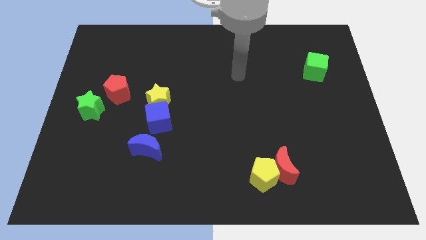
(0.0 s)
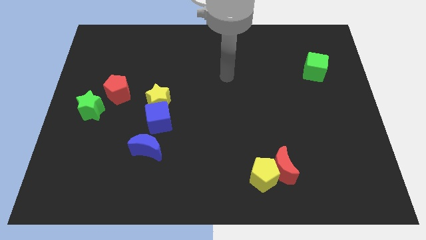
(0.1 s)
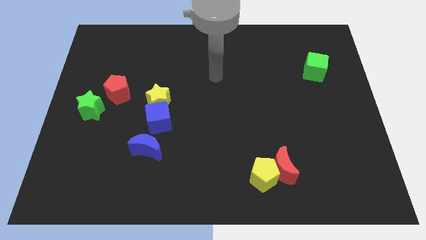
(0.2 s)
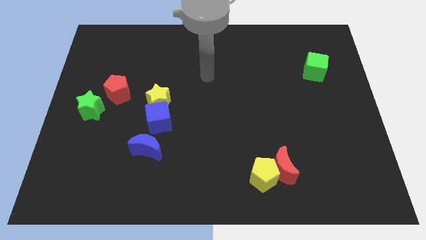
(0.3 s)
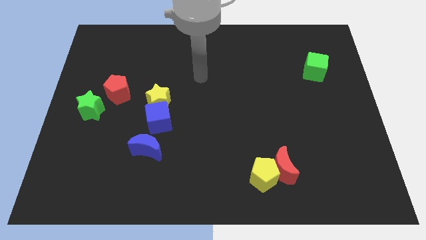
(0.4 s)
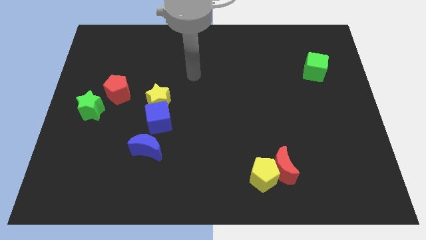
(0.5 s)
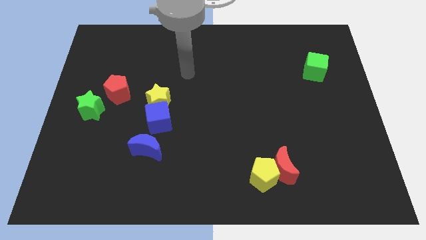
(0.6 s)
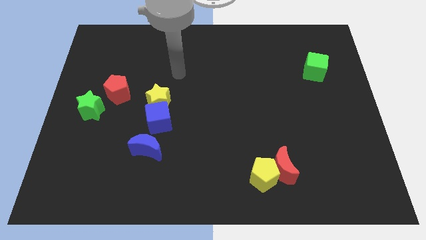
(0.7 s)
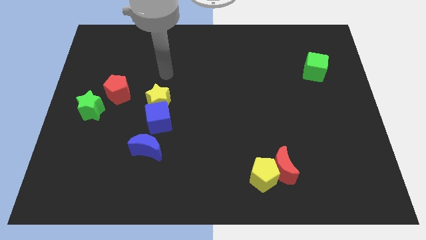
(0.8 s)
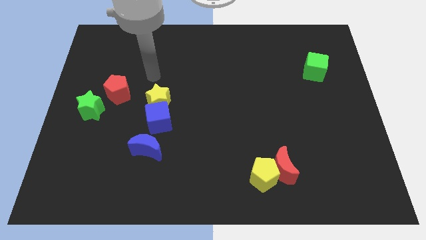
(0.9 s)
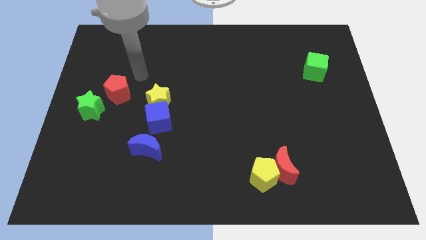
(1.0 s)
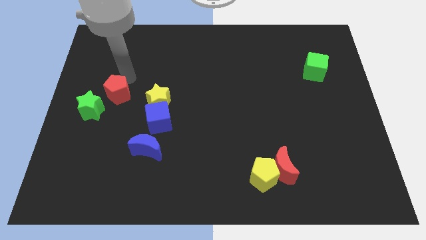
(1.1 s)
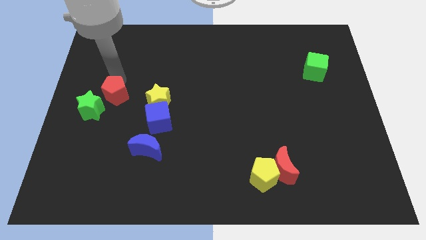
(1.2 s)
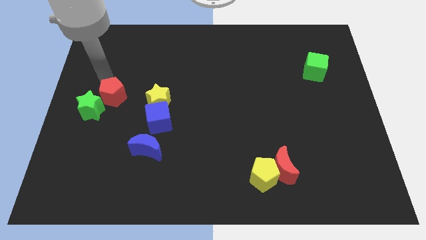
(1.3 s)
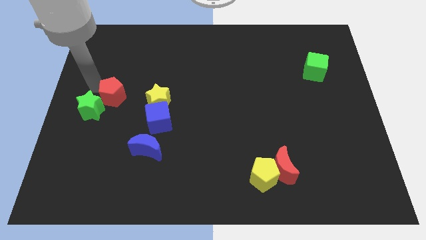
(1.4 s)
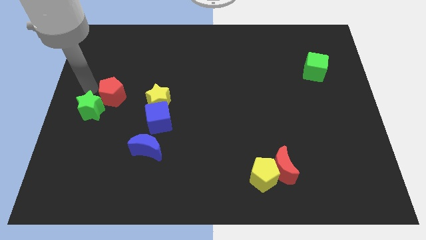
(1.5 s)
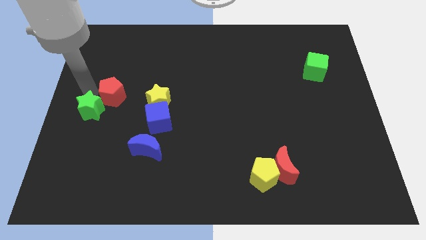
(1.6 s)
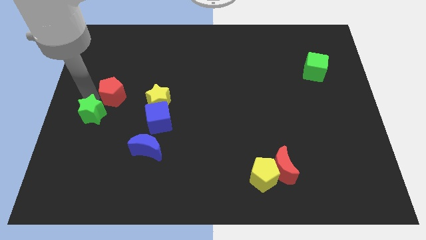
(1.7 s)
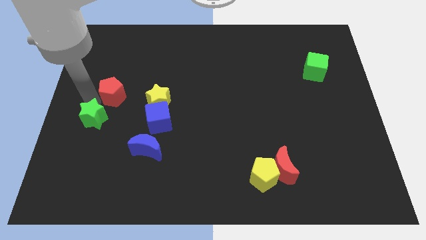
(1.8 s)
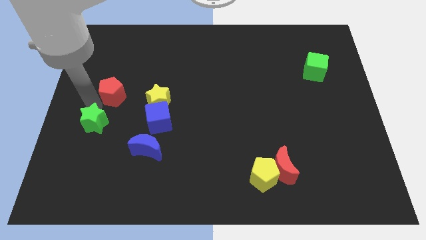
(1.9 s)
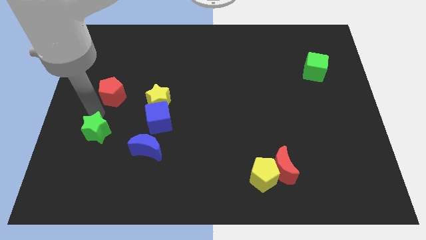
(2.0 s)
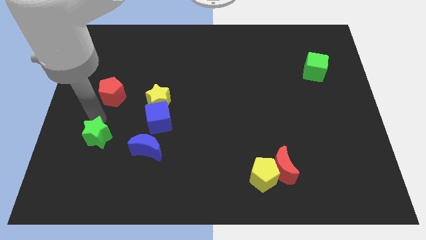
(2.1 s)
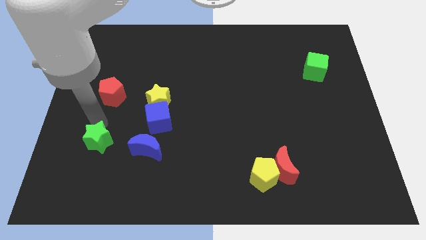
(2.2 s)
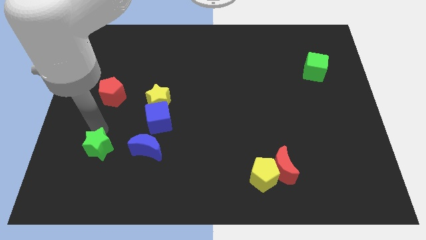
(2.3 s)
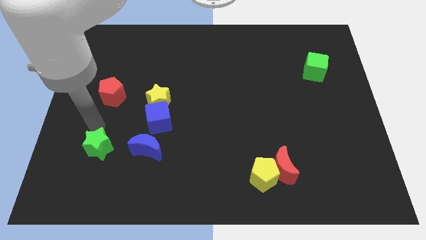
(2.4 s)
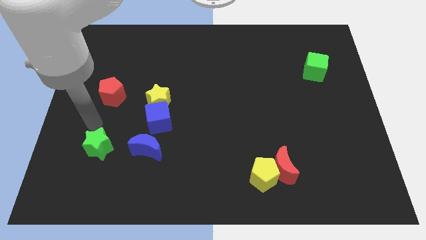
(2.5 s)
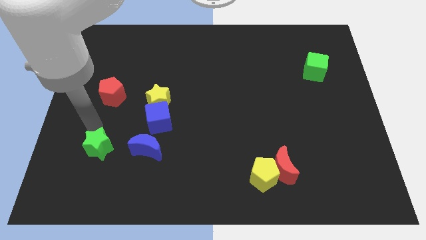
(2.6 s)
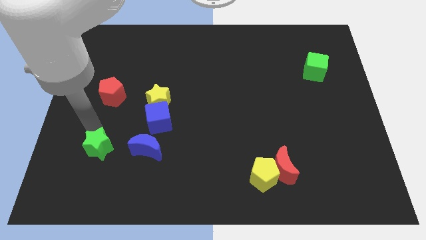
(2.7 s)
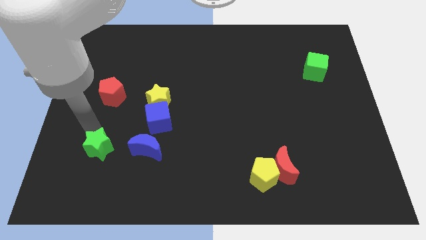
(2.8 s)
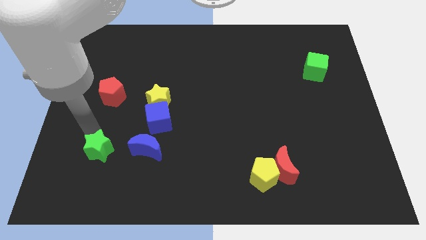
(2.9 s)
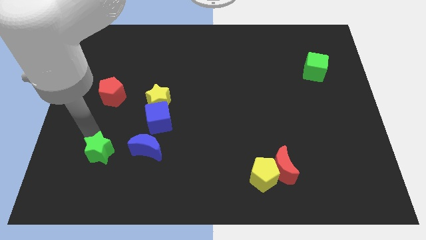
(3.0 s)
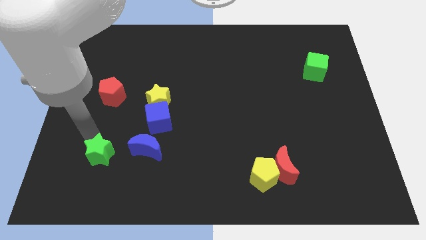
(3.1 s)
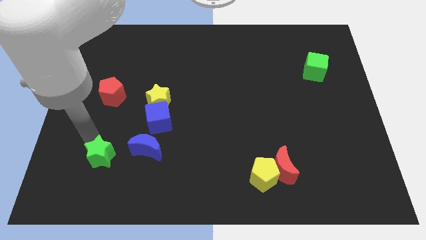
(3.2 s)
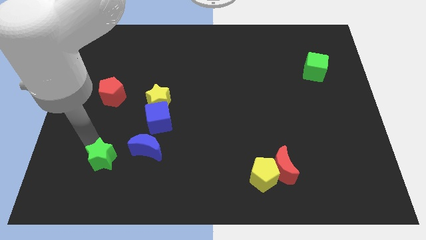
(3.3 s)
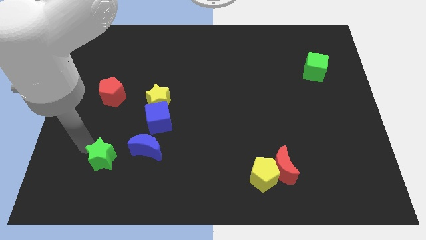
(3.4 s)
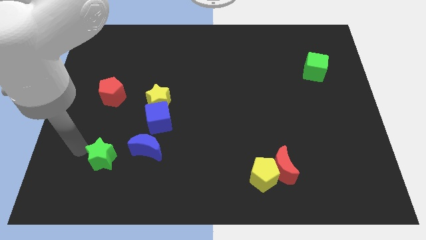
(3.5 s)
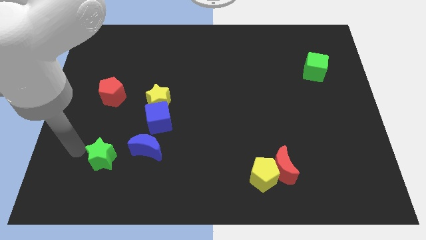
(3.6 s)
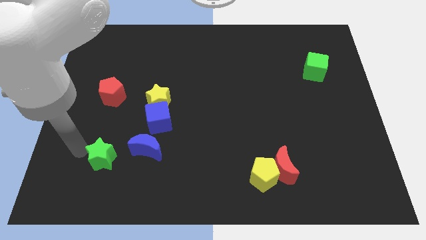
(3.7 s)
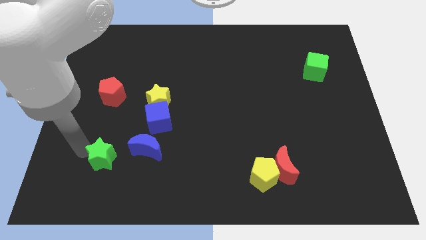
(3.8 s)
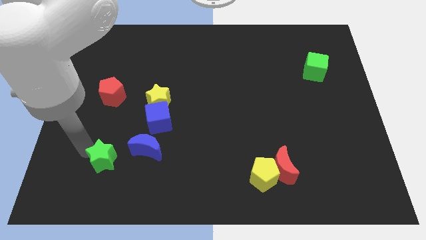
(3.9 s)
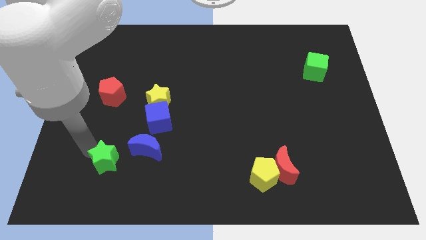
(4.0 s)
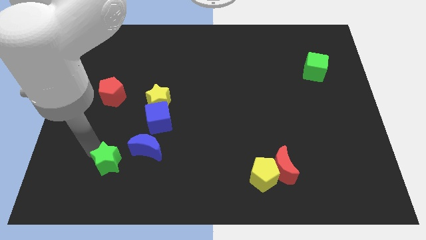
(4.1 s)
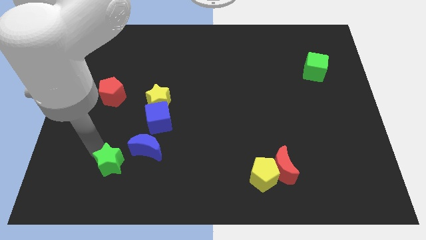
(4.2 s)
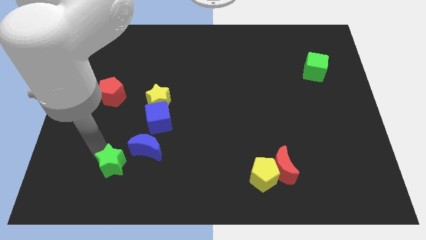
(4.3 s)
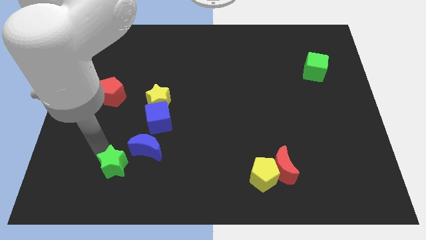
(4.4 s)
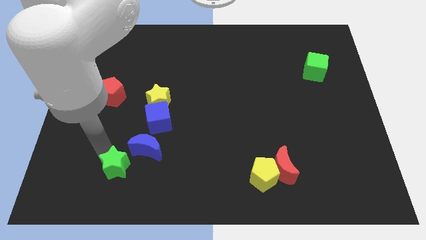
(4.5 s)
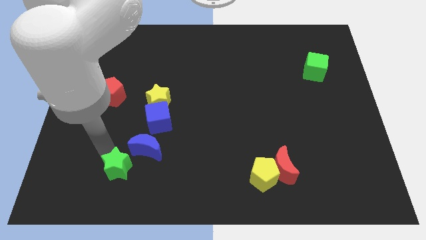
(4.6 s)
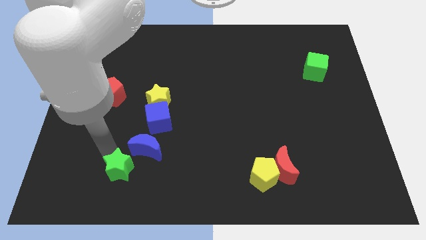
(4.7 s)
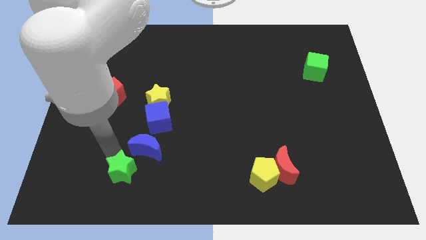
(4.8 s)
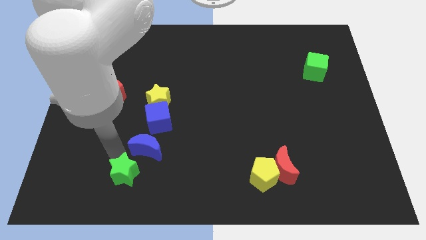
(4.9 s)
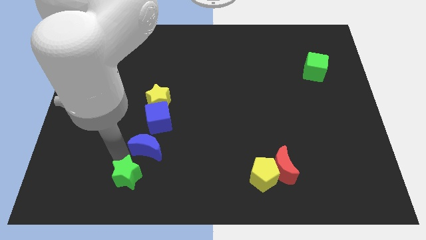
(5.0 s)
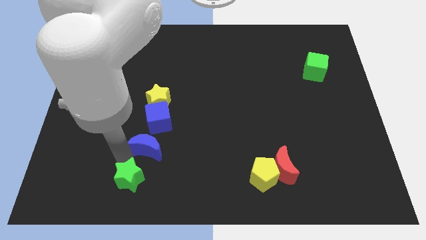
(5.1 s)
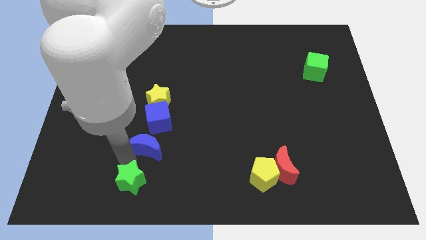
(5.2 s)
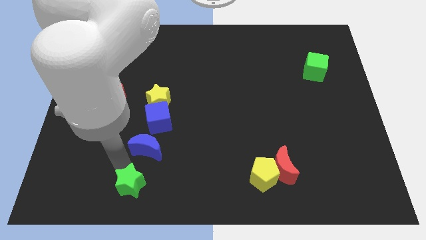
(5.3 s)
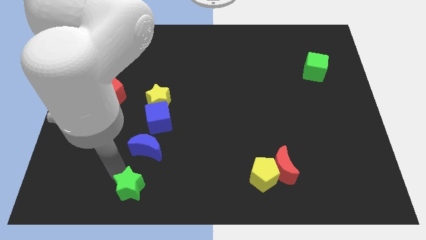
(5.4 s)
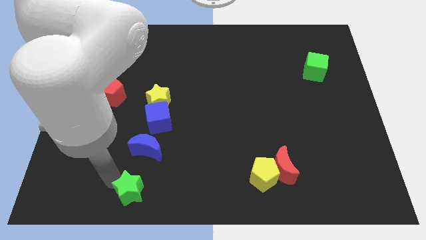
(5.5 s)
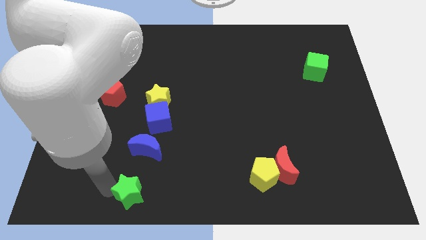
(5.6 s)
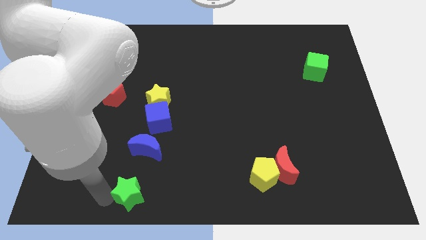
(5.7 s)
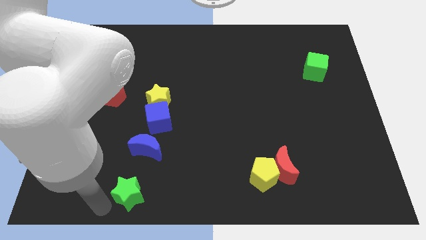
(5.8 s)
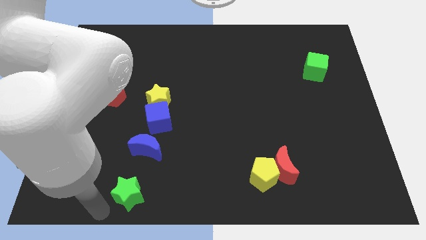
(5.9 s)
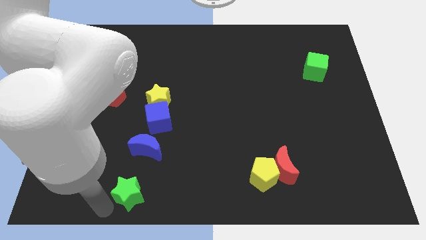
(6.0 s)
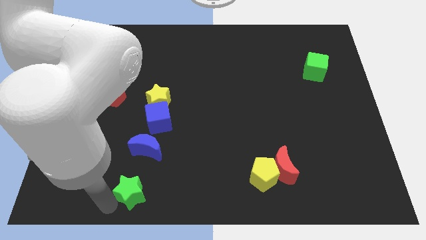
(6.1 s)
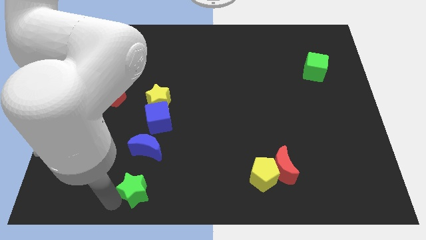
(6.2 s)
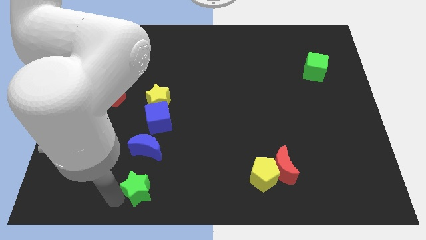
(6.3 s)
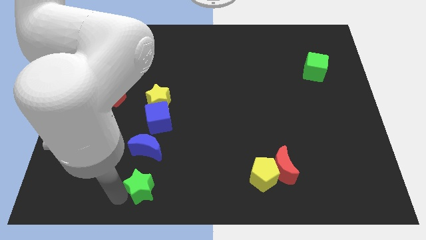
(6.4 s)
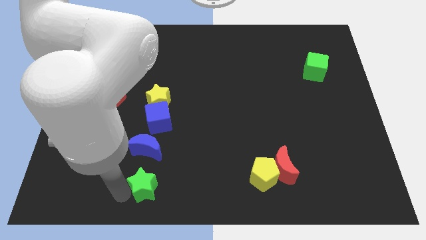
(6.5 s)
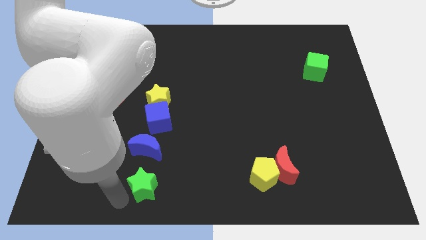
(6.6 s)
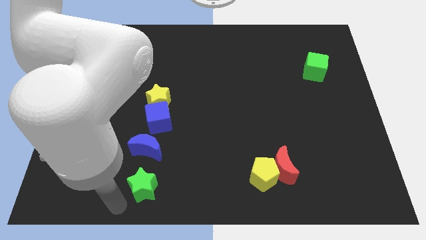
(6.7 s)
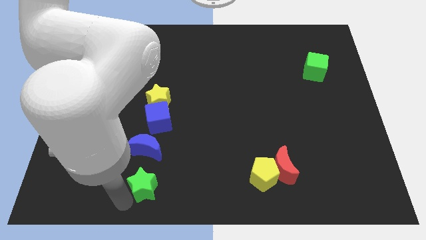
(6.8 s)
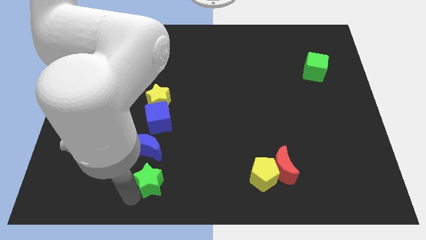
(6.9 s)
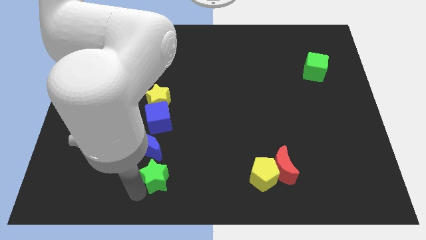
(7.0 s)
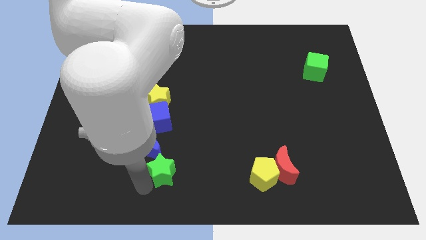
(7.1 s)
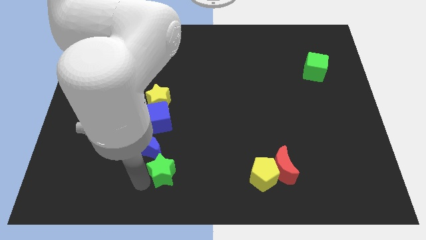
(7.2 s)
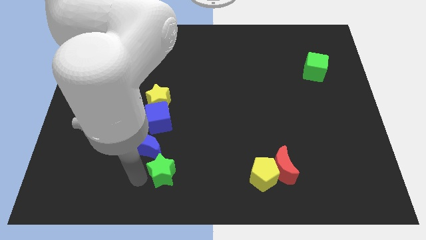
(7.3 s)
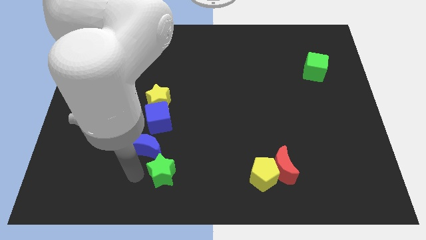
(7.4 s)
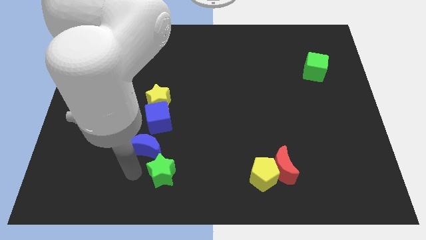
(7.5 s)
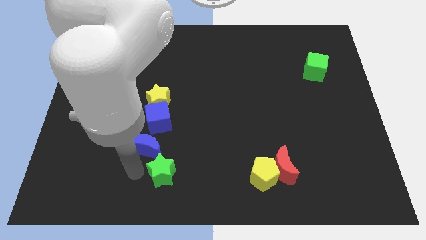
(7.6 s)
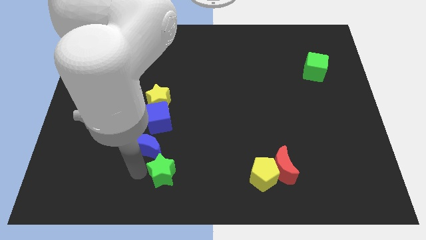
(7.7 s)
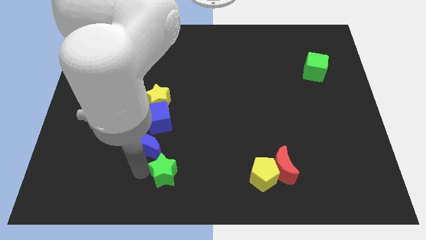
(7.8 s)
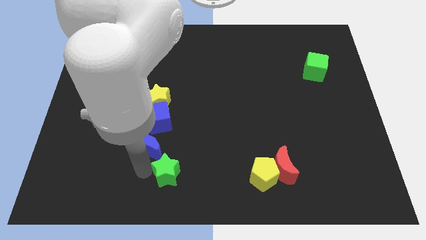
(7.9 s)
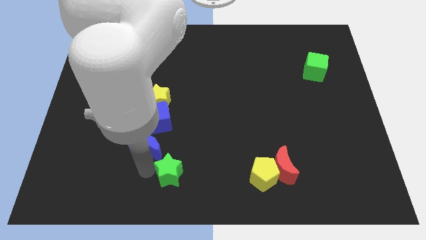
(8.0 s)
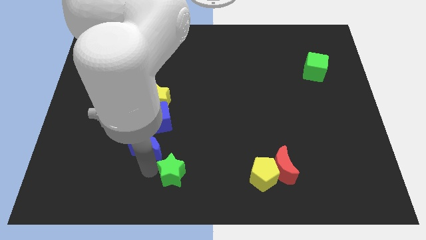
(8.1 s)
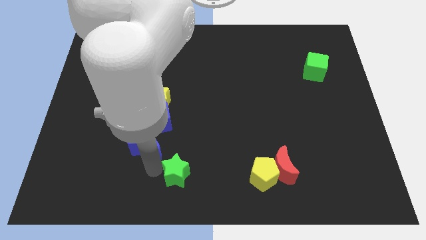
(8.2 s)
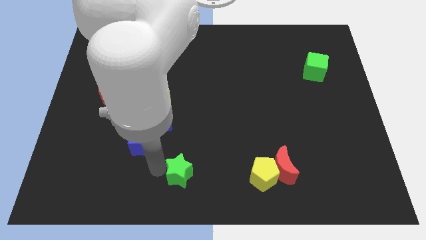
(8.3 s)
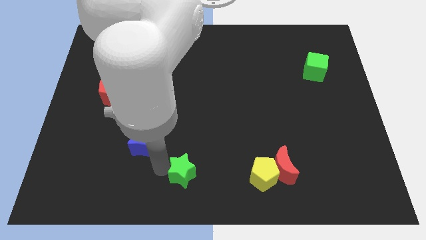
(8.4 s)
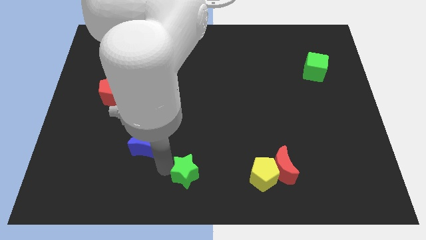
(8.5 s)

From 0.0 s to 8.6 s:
slide the green star to the left side of the yellow pentagon
